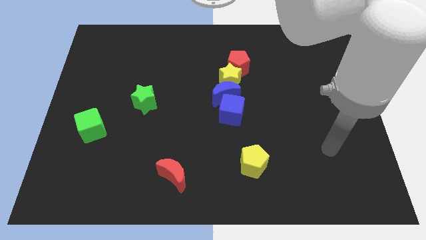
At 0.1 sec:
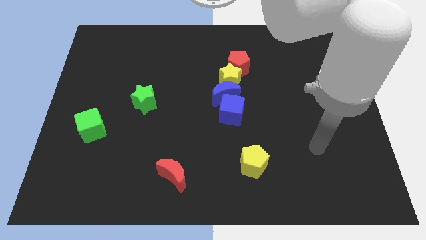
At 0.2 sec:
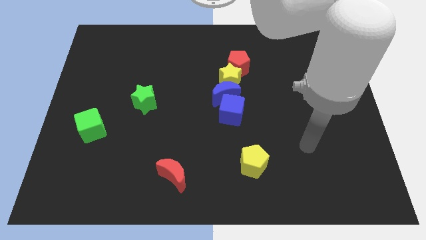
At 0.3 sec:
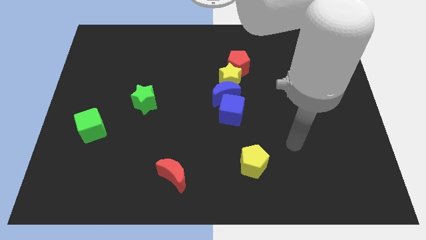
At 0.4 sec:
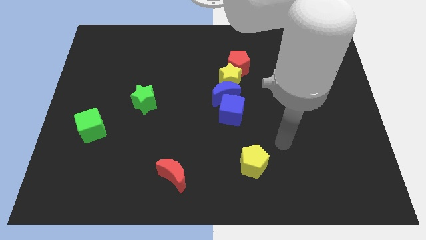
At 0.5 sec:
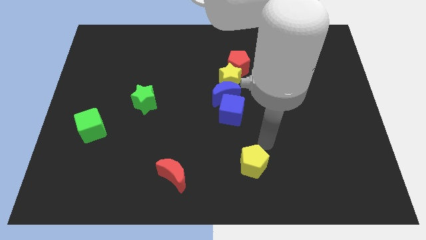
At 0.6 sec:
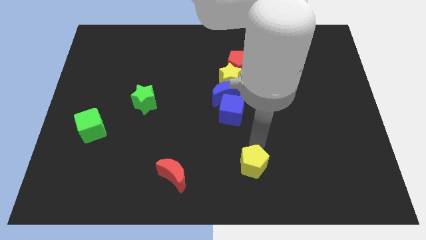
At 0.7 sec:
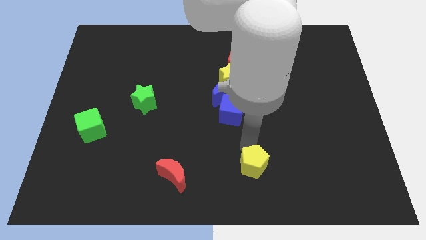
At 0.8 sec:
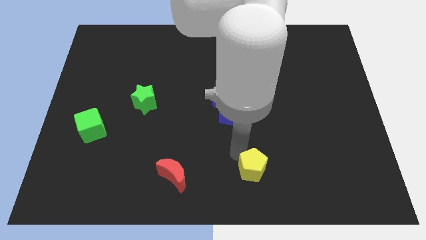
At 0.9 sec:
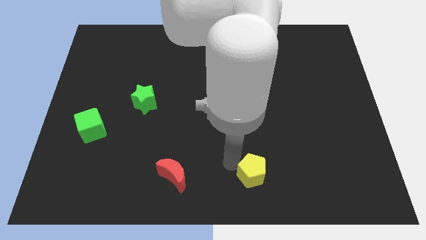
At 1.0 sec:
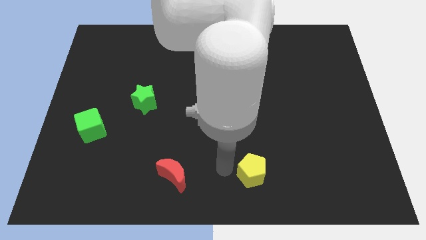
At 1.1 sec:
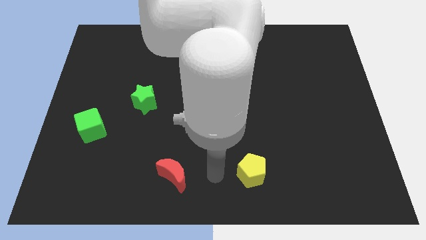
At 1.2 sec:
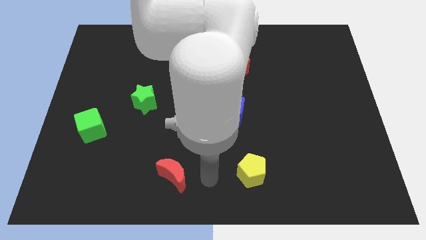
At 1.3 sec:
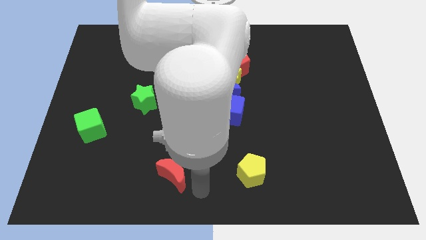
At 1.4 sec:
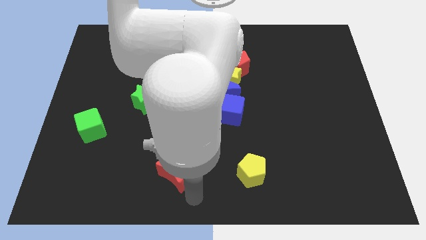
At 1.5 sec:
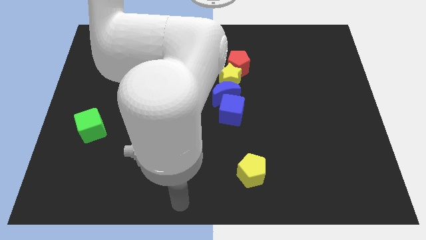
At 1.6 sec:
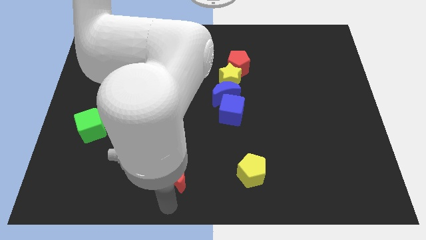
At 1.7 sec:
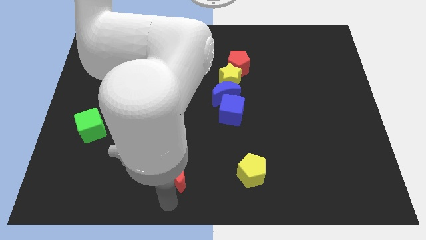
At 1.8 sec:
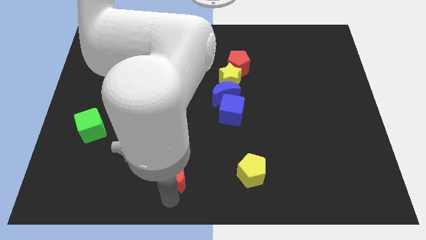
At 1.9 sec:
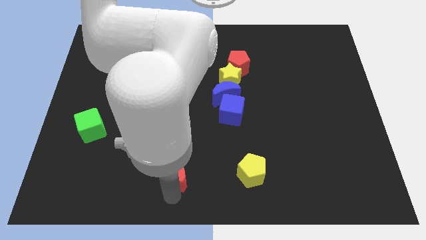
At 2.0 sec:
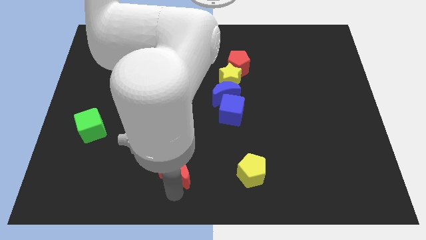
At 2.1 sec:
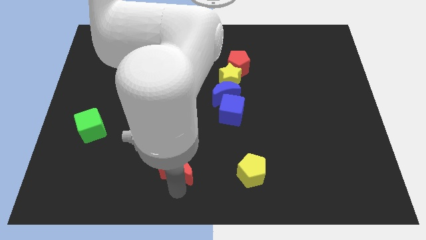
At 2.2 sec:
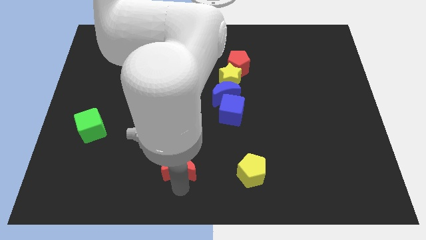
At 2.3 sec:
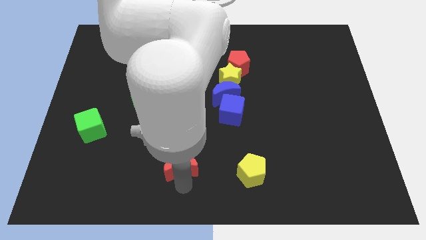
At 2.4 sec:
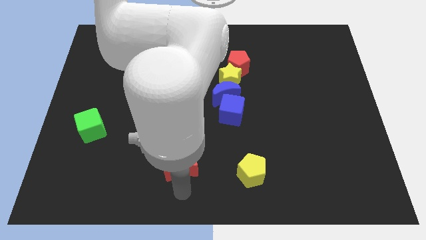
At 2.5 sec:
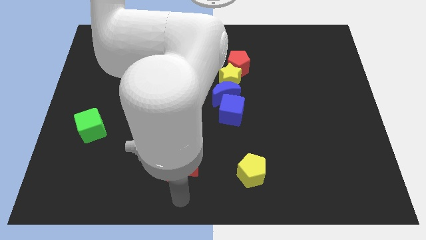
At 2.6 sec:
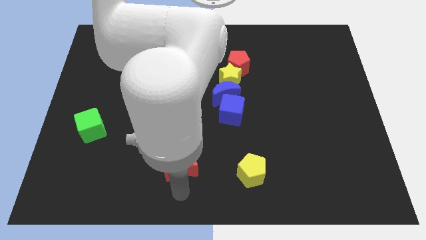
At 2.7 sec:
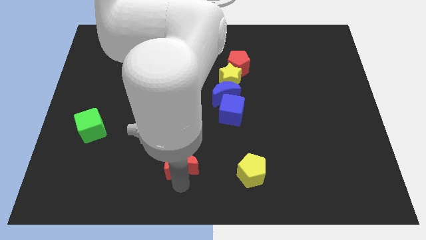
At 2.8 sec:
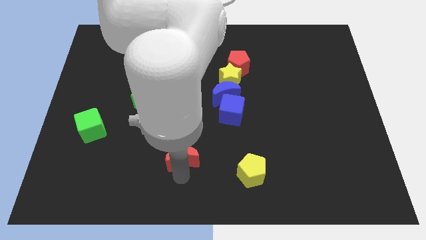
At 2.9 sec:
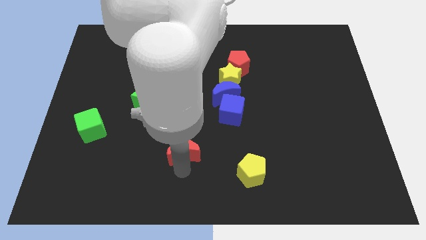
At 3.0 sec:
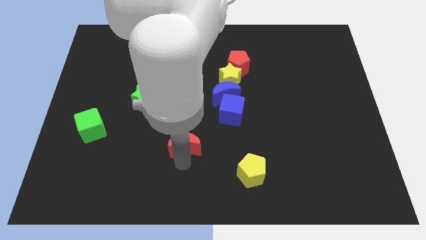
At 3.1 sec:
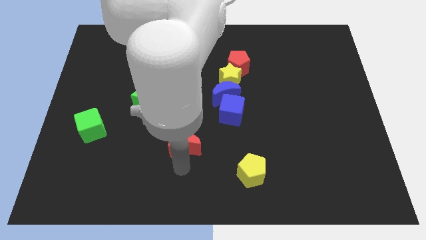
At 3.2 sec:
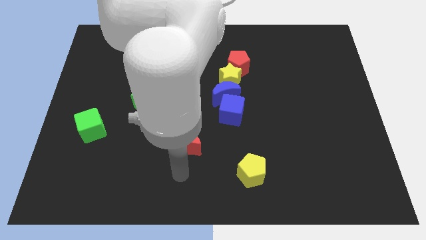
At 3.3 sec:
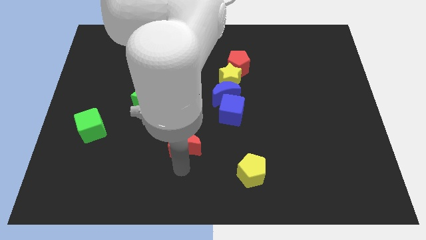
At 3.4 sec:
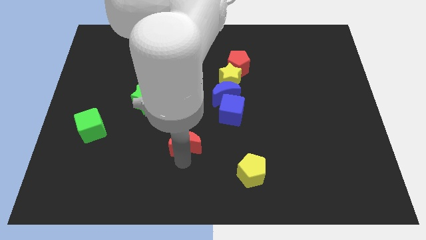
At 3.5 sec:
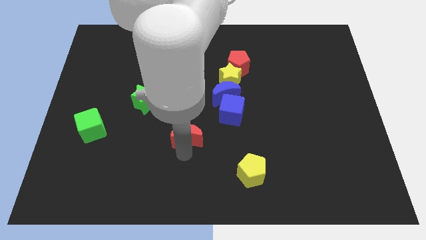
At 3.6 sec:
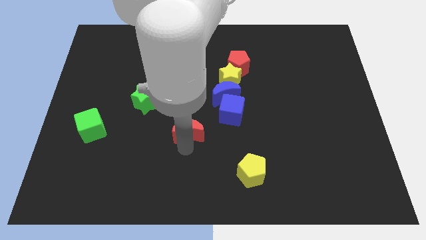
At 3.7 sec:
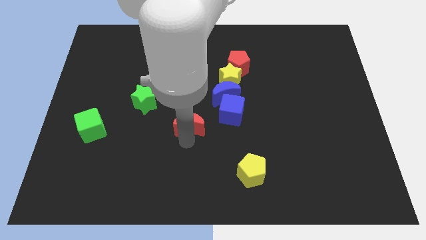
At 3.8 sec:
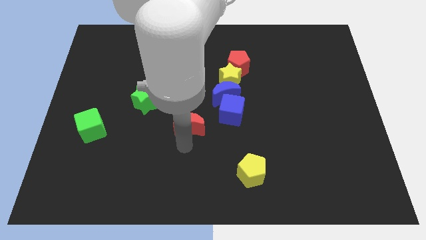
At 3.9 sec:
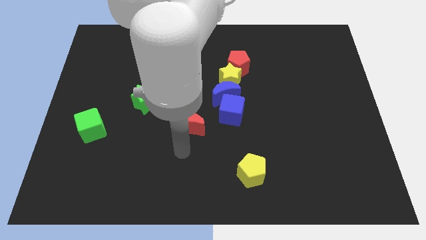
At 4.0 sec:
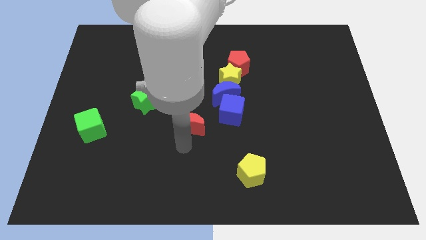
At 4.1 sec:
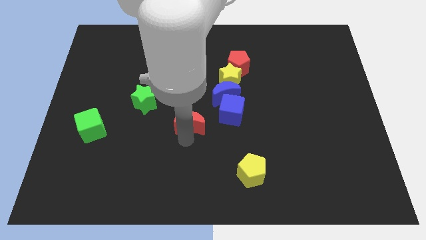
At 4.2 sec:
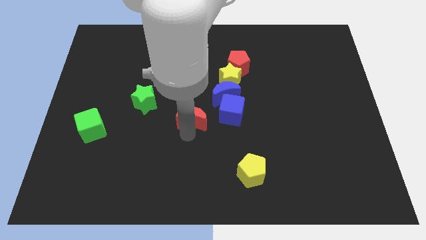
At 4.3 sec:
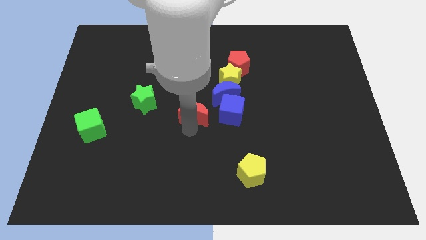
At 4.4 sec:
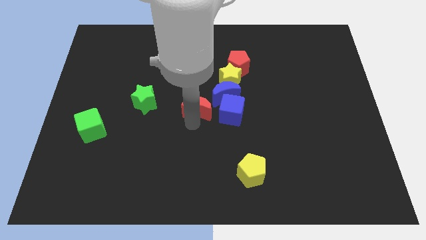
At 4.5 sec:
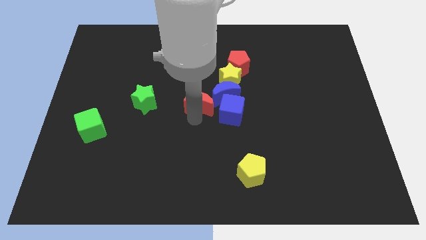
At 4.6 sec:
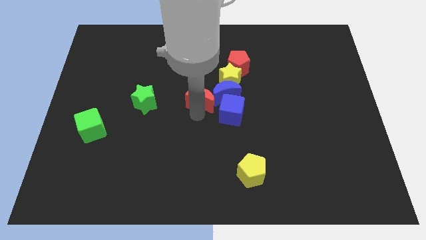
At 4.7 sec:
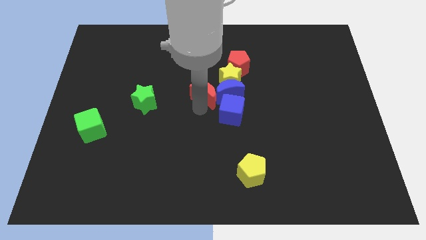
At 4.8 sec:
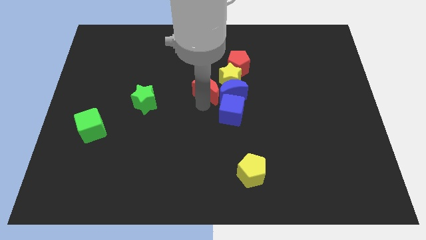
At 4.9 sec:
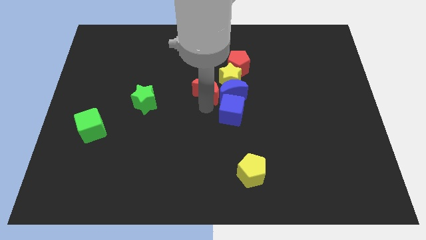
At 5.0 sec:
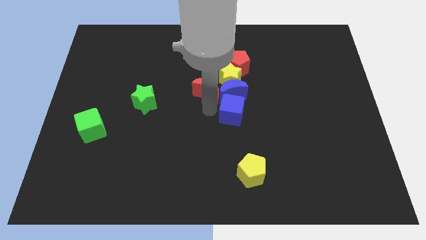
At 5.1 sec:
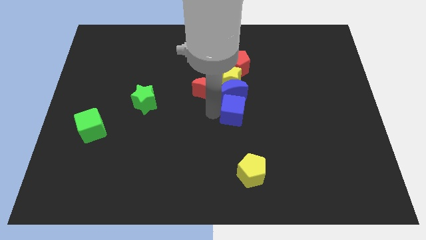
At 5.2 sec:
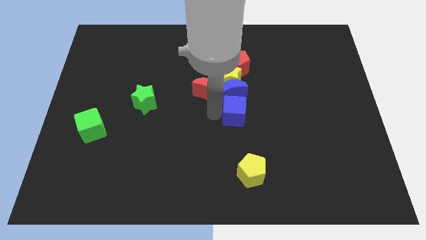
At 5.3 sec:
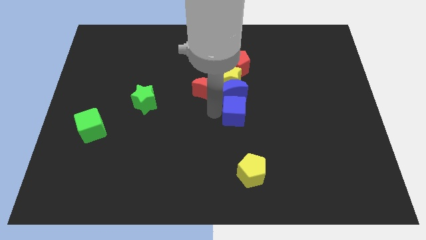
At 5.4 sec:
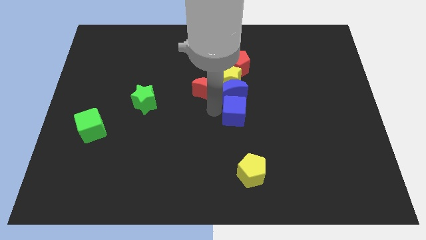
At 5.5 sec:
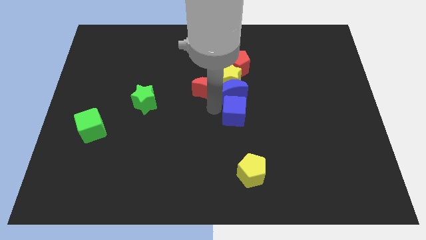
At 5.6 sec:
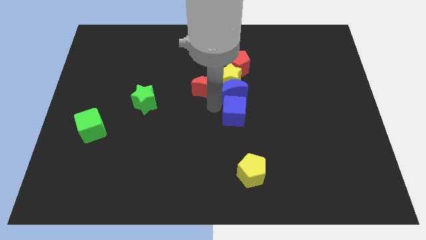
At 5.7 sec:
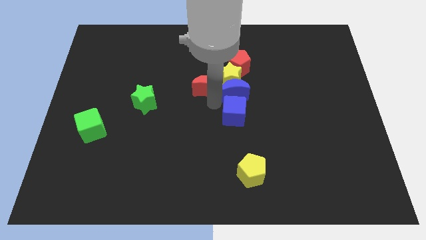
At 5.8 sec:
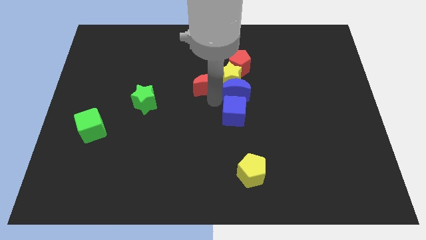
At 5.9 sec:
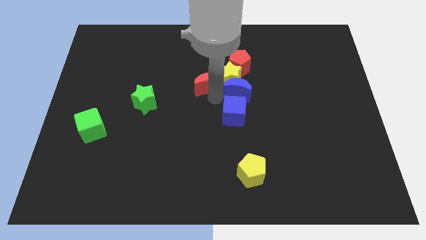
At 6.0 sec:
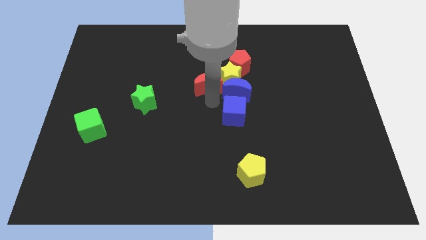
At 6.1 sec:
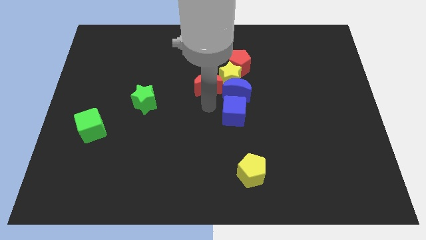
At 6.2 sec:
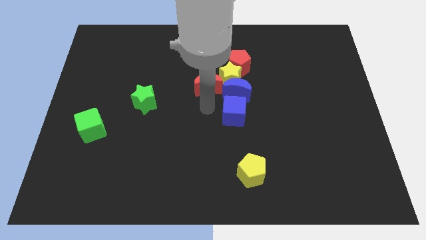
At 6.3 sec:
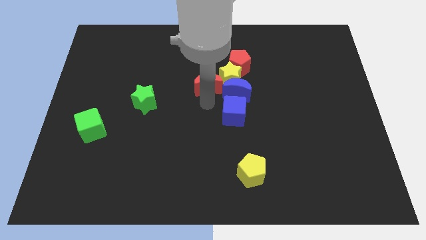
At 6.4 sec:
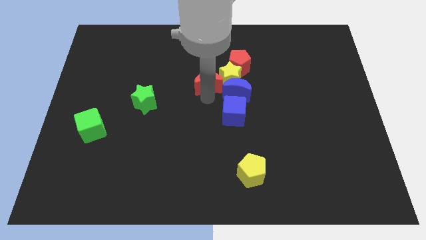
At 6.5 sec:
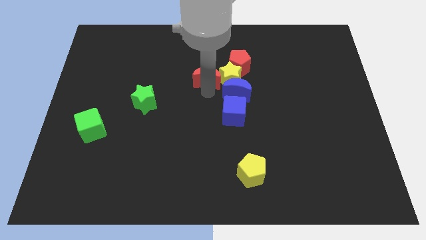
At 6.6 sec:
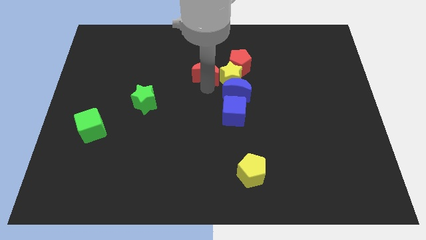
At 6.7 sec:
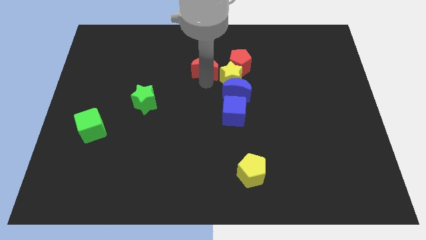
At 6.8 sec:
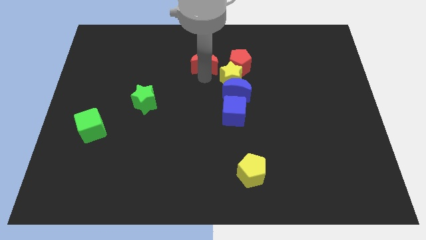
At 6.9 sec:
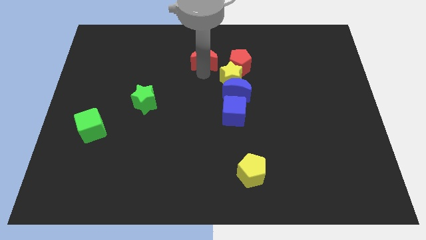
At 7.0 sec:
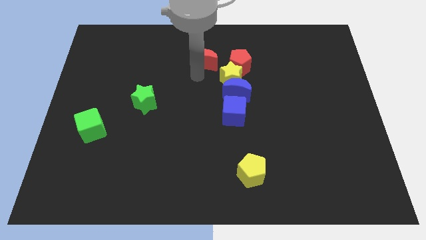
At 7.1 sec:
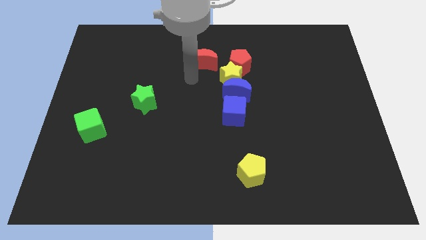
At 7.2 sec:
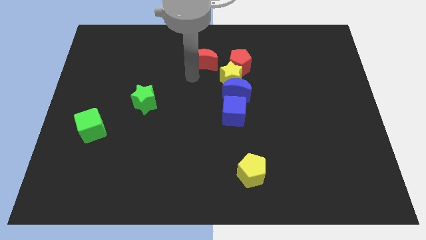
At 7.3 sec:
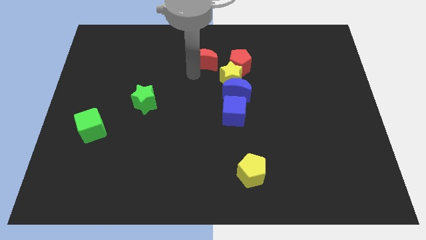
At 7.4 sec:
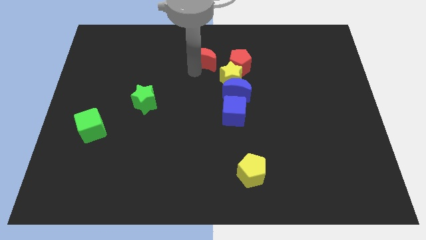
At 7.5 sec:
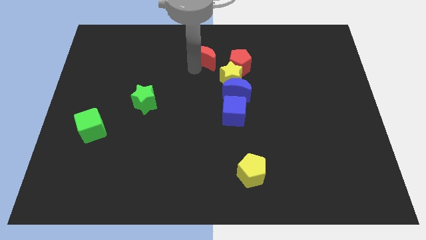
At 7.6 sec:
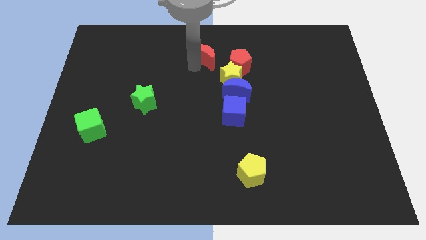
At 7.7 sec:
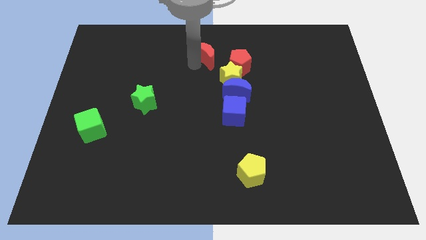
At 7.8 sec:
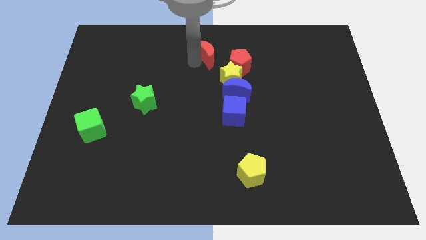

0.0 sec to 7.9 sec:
push the red moon to the top
